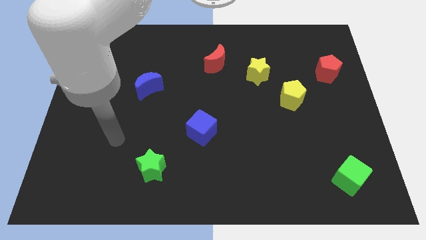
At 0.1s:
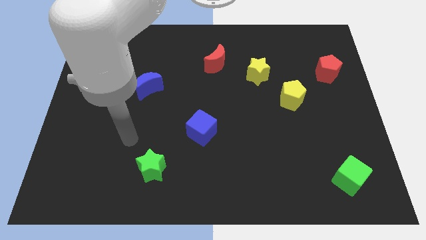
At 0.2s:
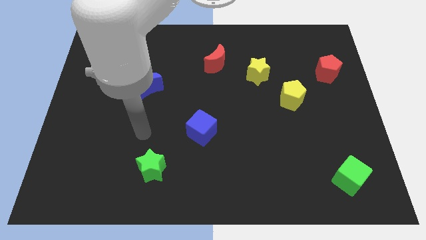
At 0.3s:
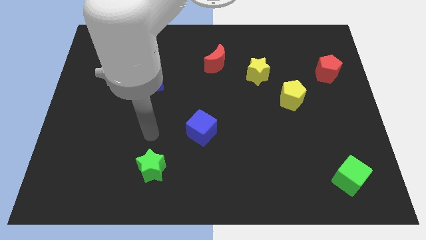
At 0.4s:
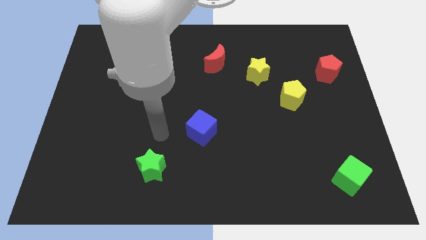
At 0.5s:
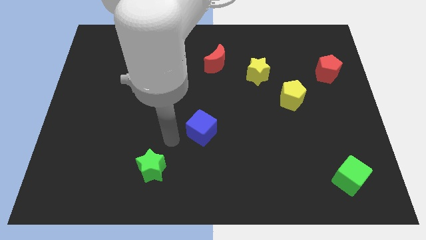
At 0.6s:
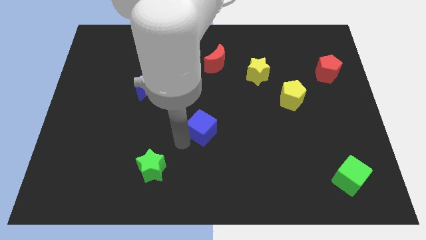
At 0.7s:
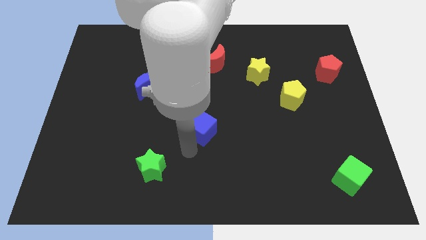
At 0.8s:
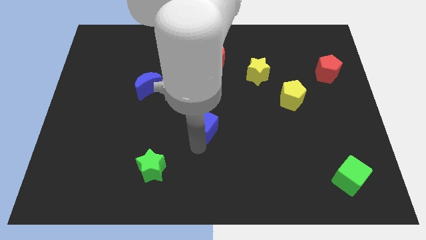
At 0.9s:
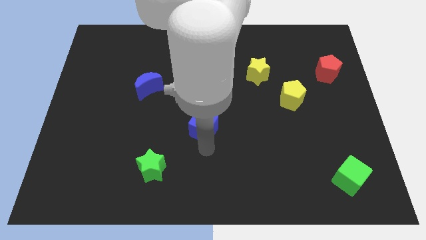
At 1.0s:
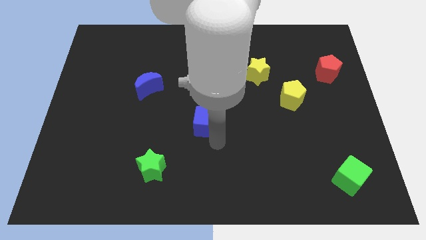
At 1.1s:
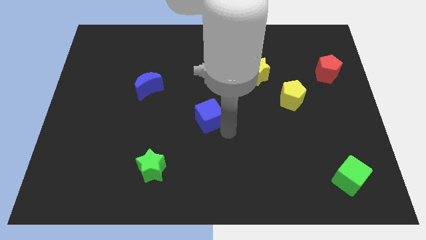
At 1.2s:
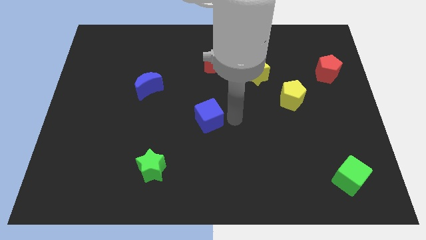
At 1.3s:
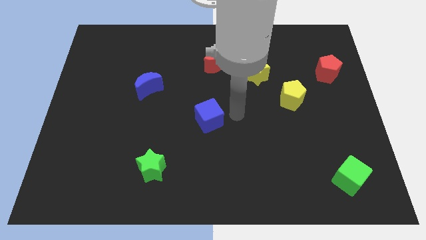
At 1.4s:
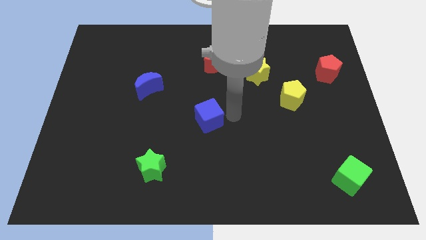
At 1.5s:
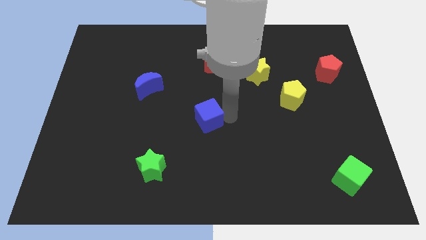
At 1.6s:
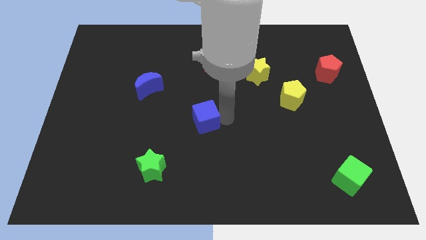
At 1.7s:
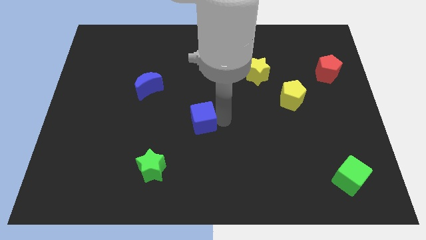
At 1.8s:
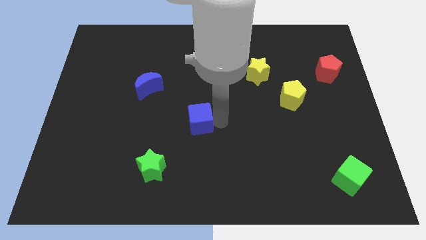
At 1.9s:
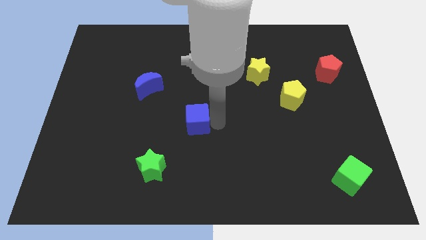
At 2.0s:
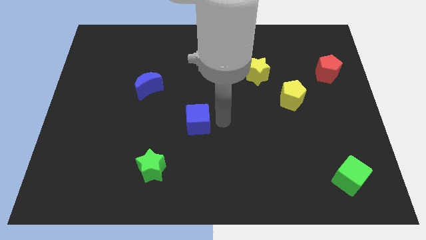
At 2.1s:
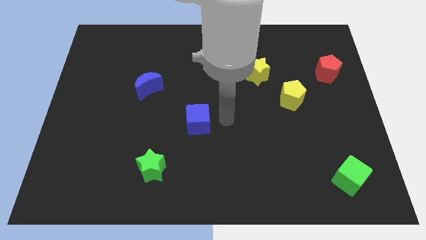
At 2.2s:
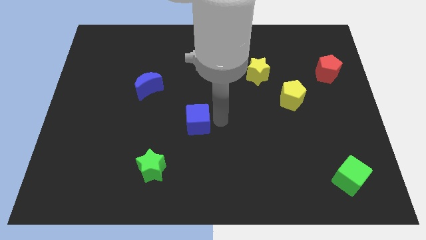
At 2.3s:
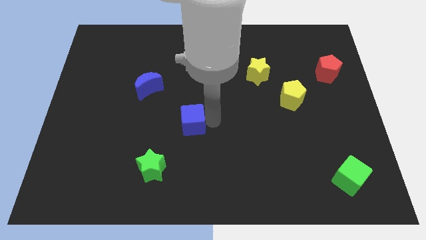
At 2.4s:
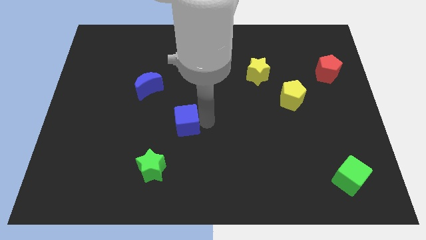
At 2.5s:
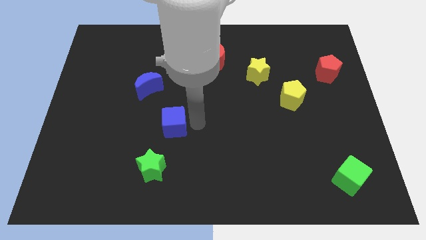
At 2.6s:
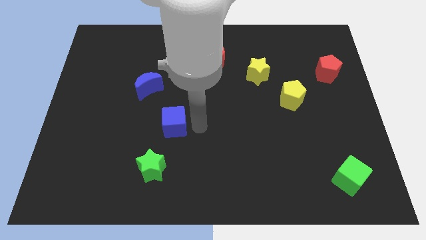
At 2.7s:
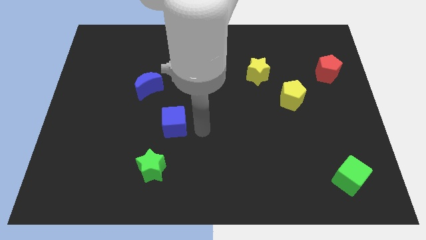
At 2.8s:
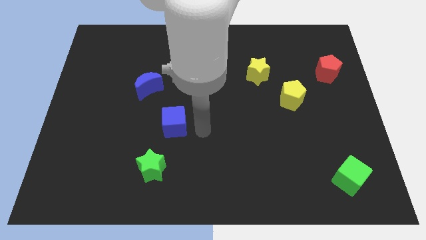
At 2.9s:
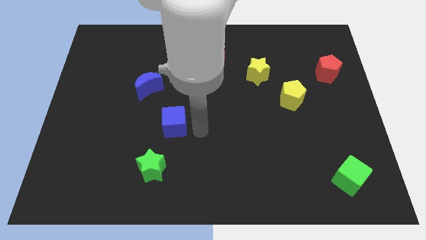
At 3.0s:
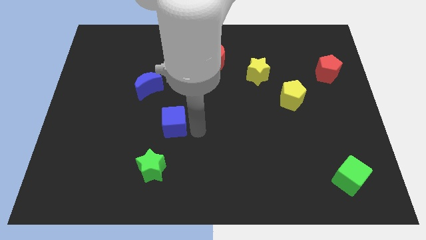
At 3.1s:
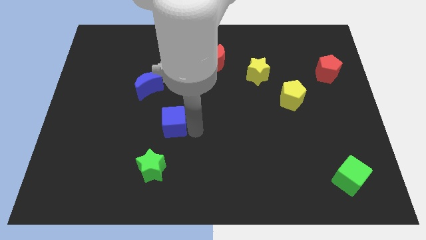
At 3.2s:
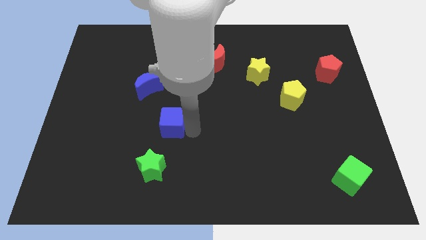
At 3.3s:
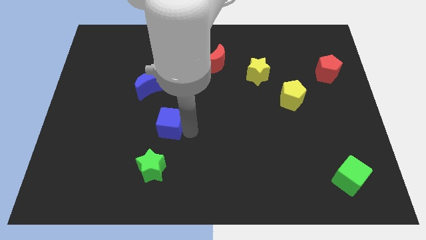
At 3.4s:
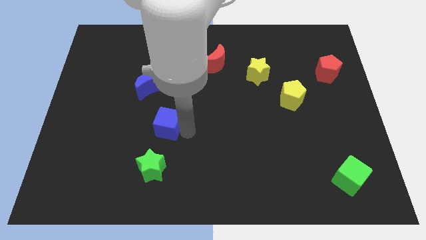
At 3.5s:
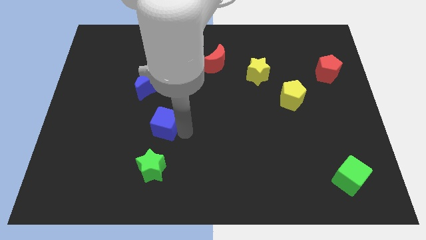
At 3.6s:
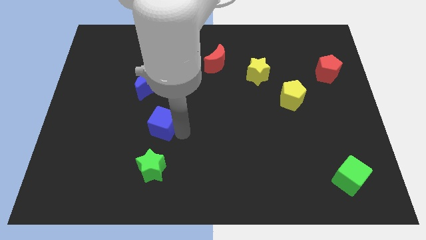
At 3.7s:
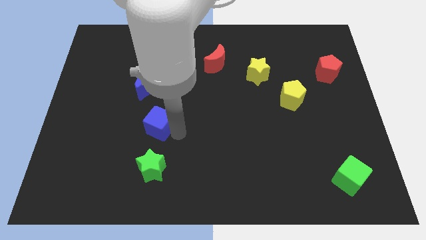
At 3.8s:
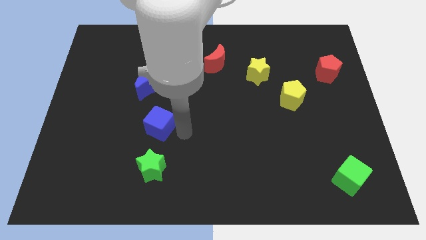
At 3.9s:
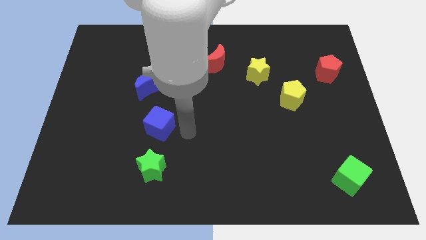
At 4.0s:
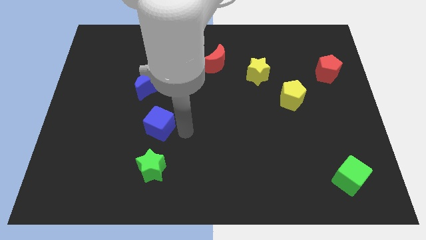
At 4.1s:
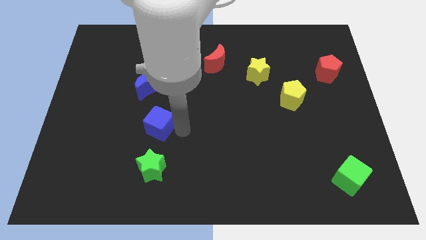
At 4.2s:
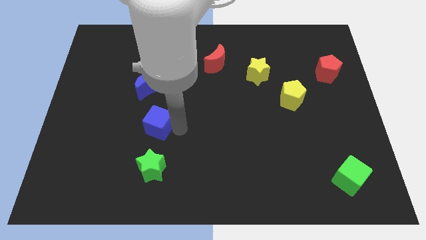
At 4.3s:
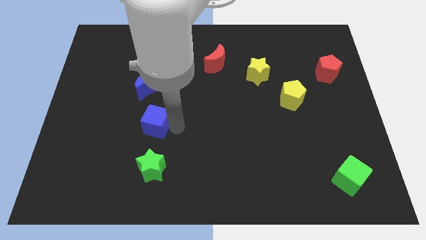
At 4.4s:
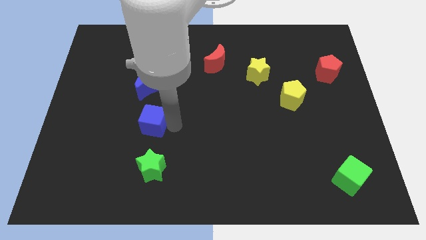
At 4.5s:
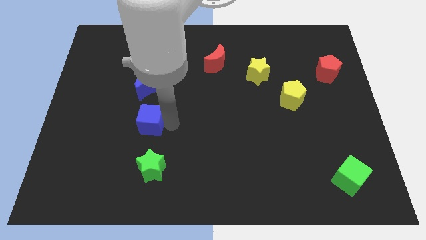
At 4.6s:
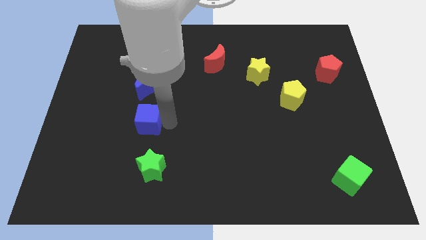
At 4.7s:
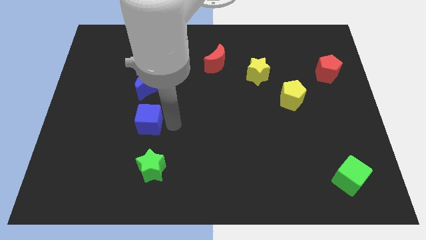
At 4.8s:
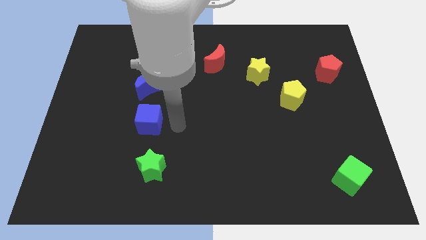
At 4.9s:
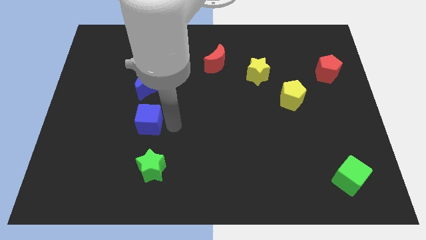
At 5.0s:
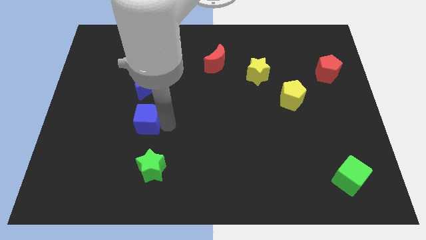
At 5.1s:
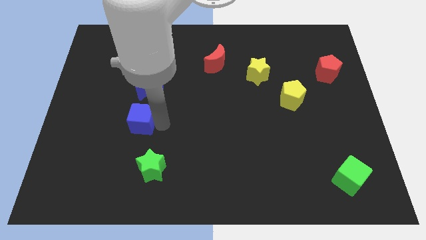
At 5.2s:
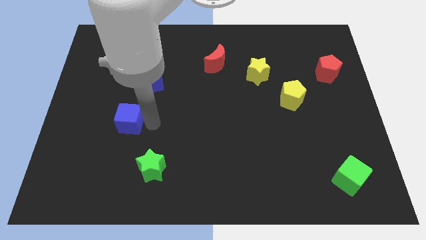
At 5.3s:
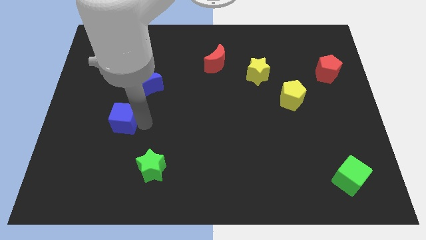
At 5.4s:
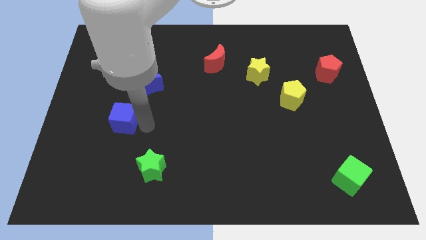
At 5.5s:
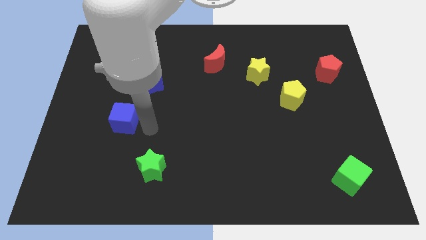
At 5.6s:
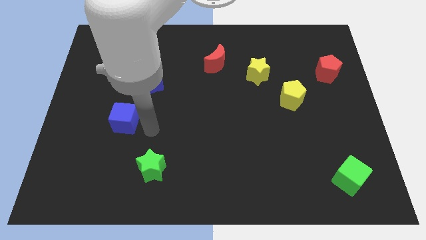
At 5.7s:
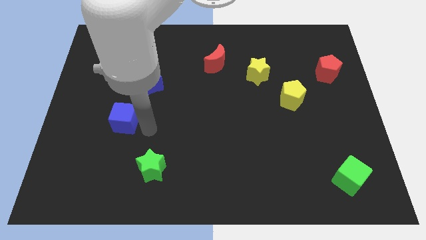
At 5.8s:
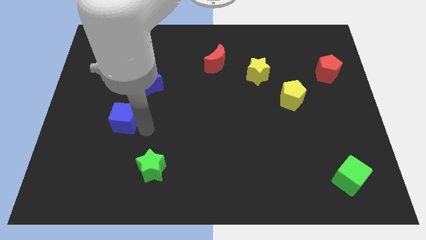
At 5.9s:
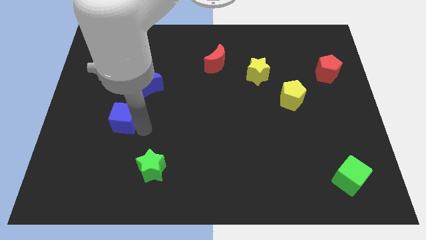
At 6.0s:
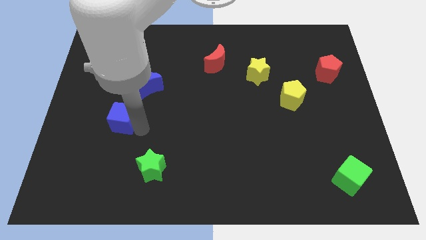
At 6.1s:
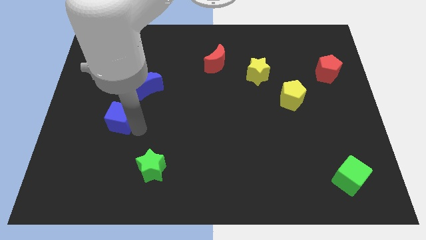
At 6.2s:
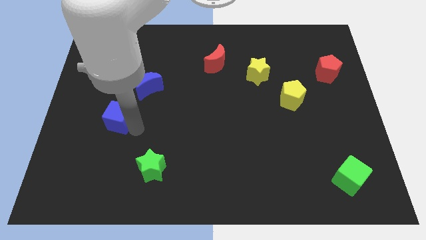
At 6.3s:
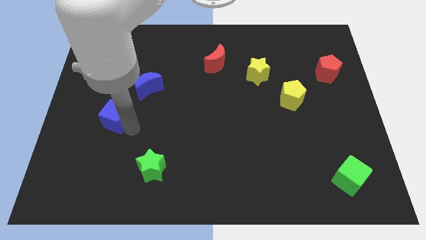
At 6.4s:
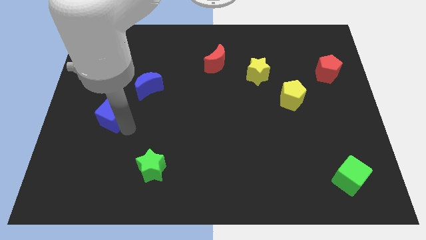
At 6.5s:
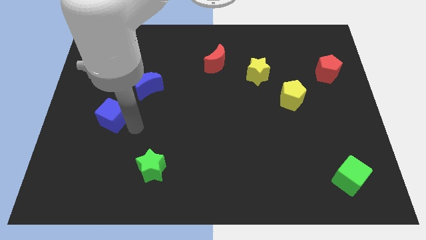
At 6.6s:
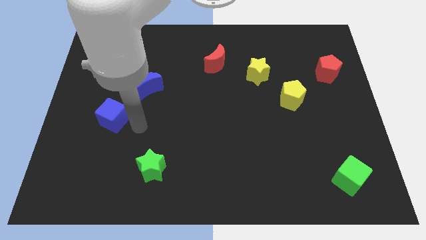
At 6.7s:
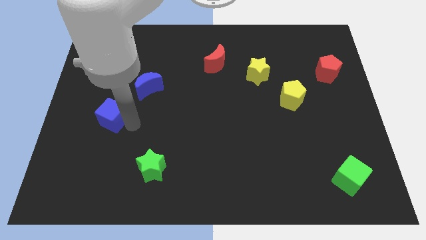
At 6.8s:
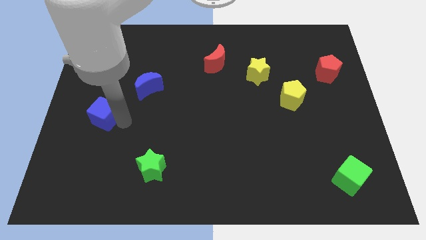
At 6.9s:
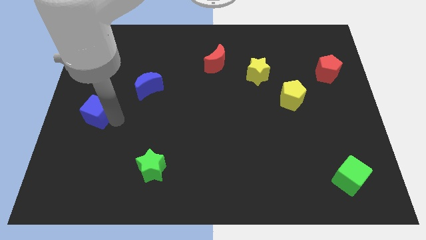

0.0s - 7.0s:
put the blue cube to the left side of the board
